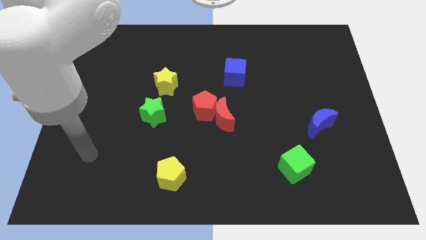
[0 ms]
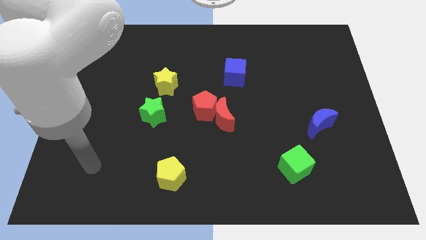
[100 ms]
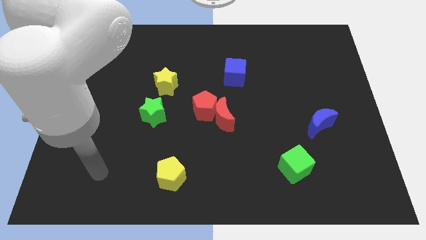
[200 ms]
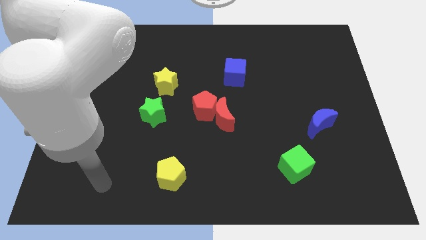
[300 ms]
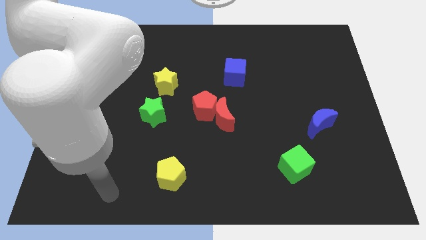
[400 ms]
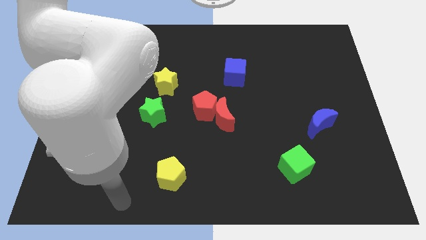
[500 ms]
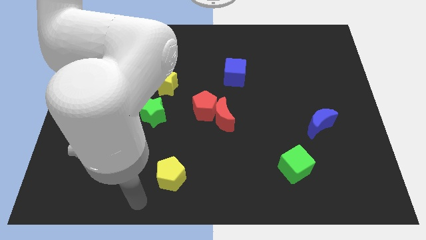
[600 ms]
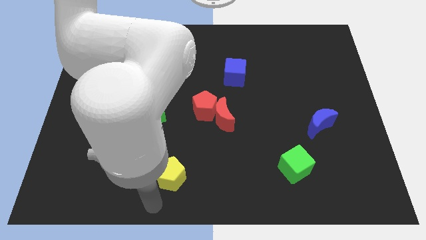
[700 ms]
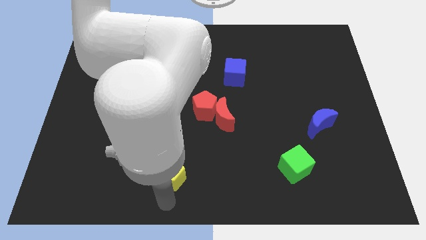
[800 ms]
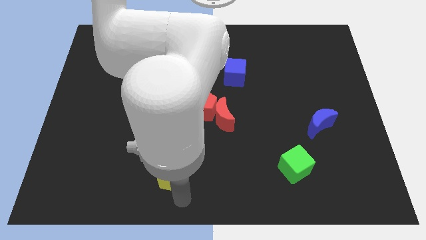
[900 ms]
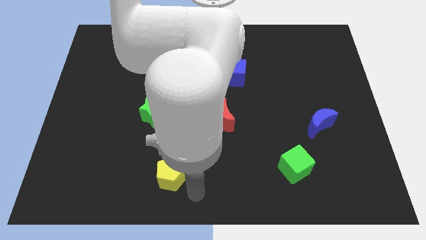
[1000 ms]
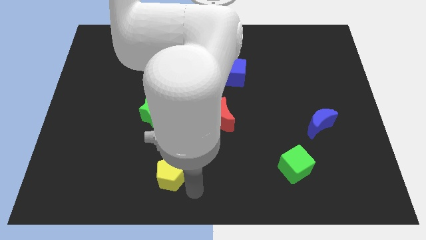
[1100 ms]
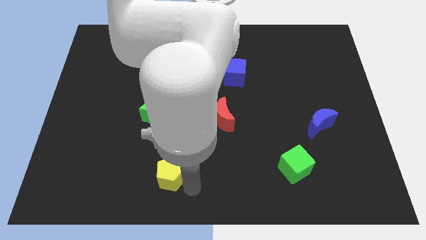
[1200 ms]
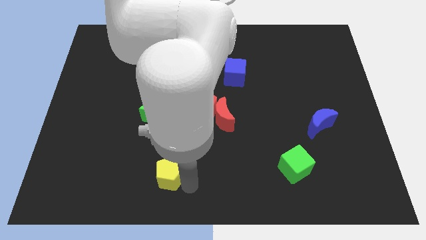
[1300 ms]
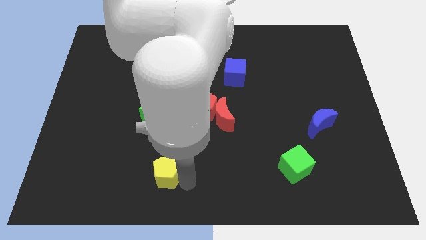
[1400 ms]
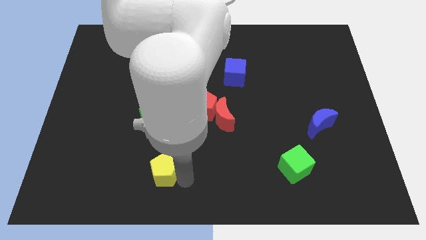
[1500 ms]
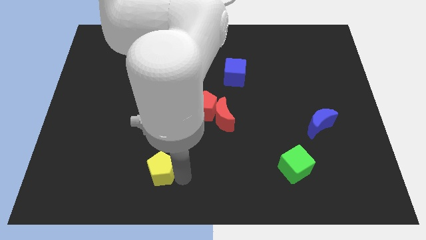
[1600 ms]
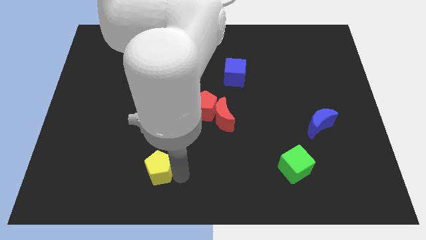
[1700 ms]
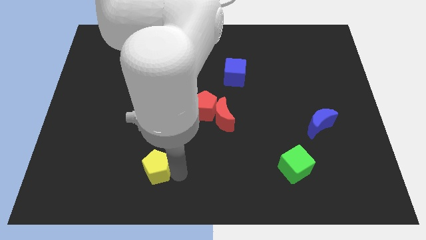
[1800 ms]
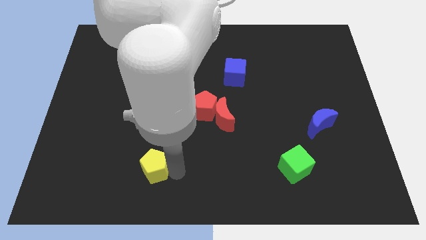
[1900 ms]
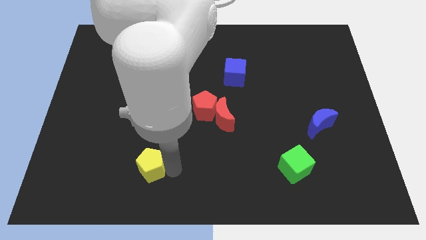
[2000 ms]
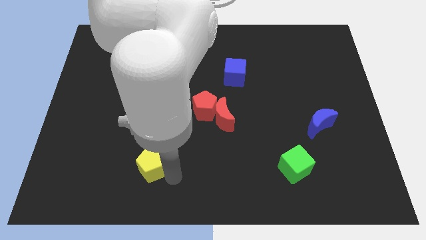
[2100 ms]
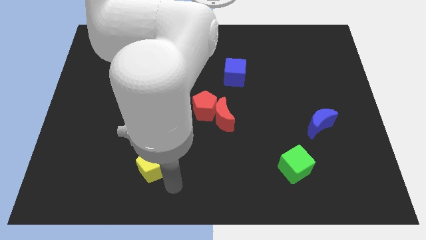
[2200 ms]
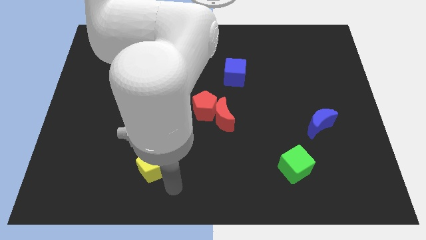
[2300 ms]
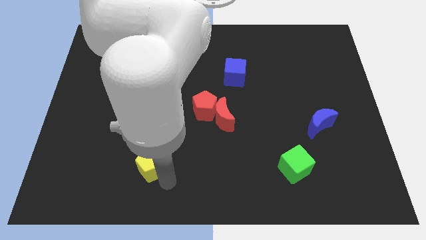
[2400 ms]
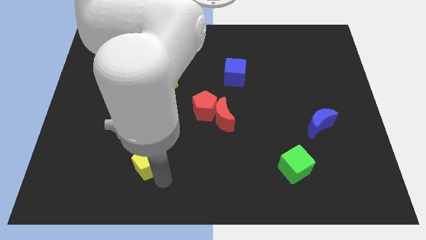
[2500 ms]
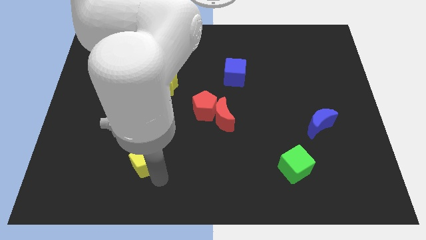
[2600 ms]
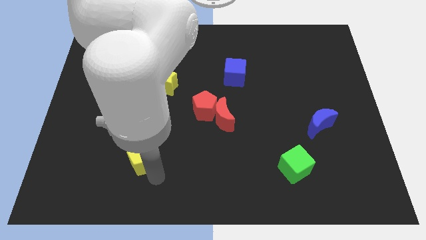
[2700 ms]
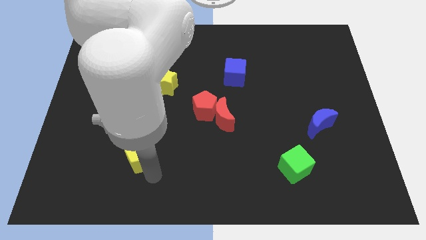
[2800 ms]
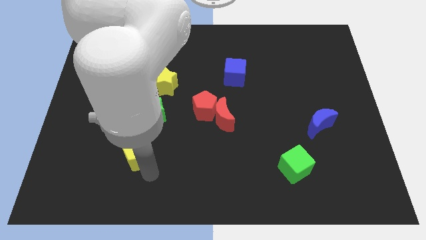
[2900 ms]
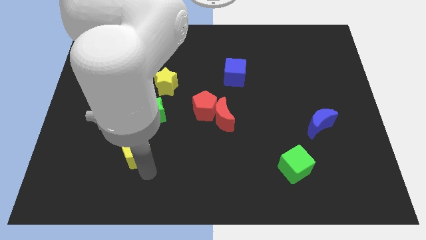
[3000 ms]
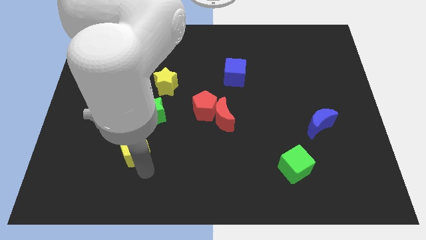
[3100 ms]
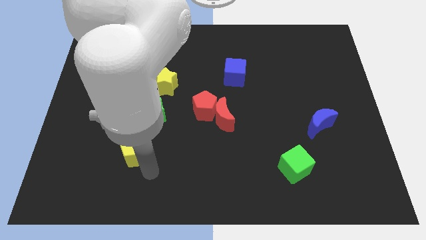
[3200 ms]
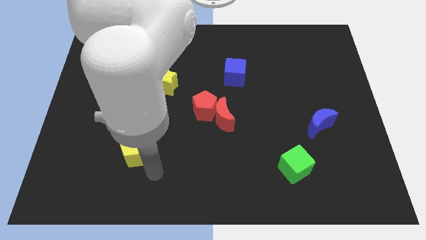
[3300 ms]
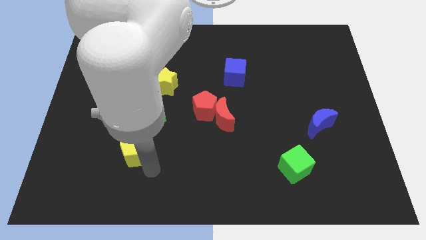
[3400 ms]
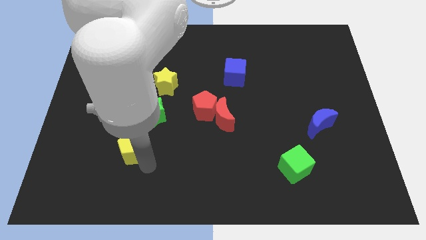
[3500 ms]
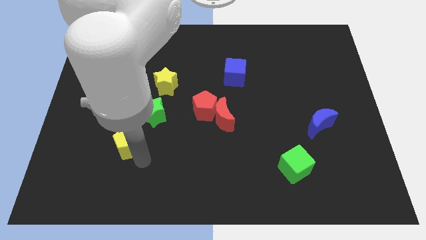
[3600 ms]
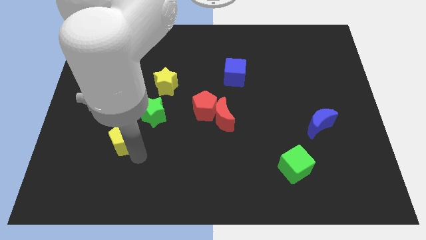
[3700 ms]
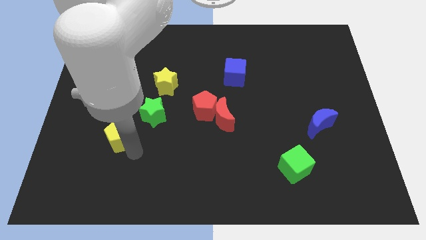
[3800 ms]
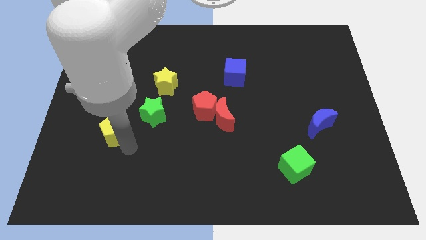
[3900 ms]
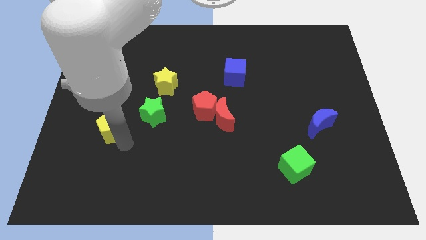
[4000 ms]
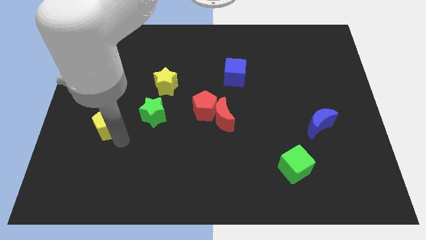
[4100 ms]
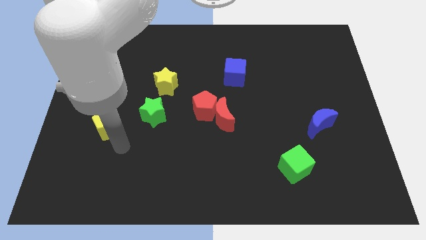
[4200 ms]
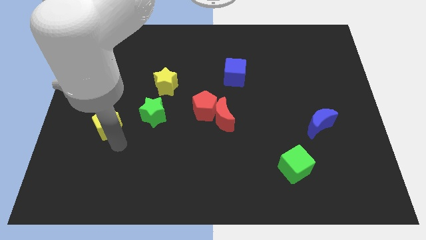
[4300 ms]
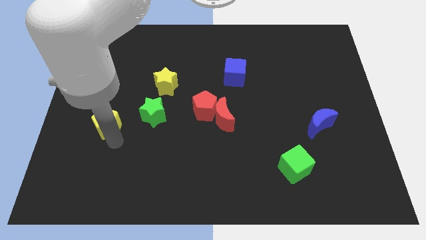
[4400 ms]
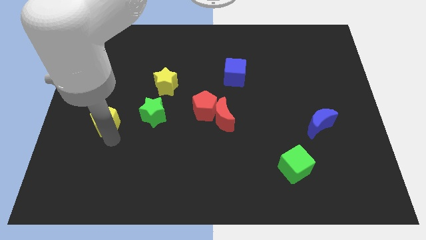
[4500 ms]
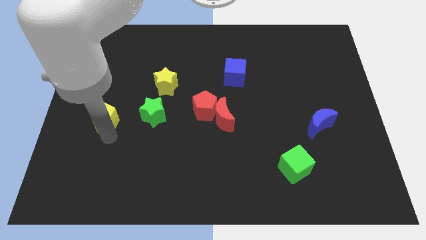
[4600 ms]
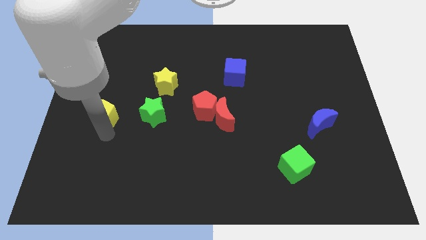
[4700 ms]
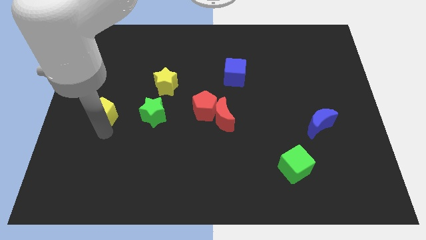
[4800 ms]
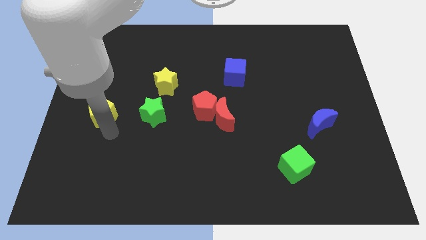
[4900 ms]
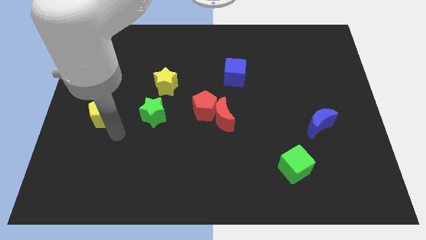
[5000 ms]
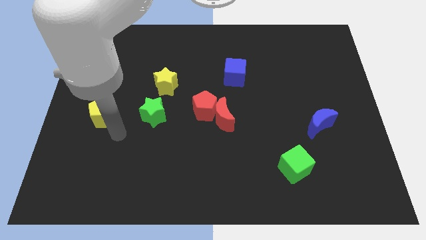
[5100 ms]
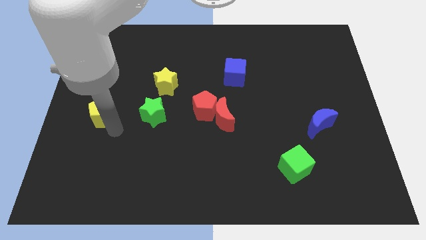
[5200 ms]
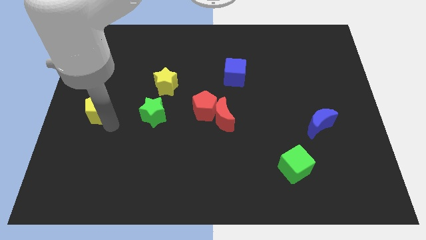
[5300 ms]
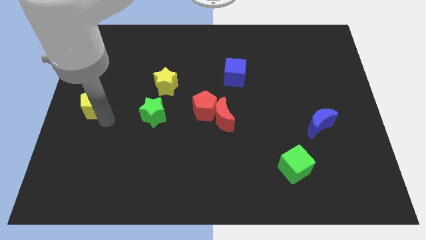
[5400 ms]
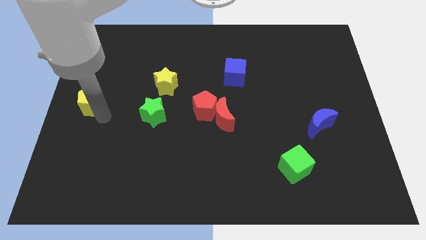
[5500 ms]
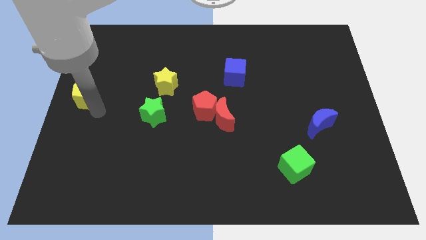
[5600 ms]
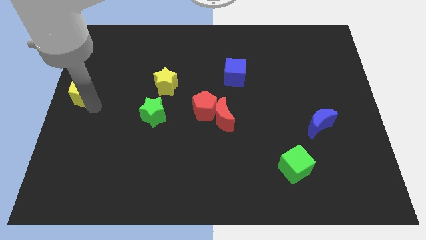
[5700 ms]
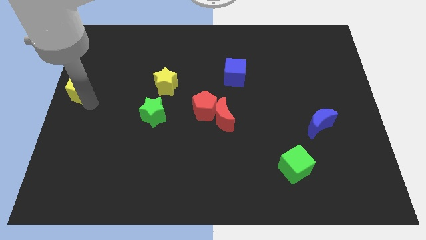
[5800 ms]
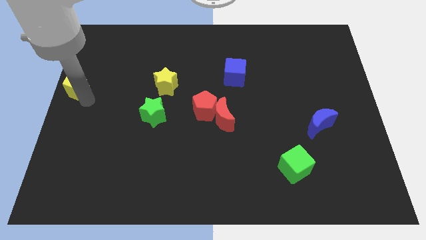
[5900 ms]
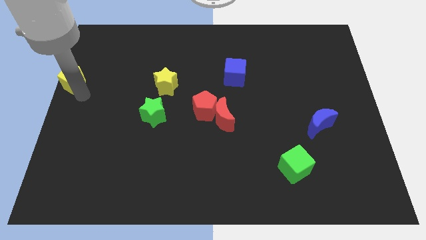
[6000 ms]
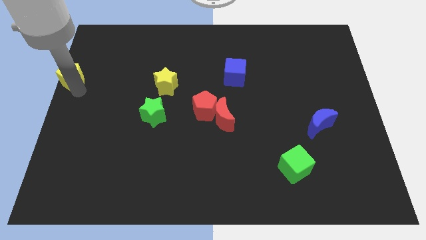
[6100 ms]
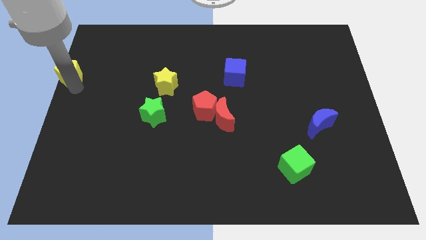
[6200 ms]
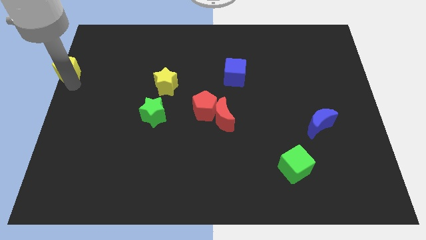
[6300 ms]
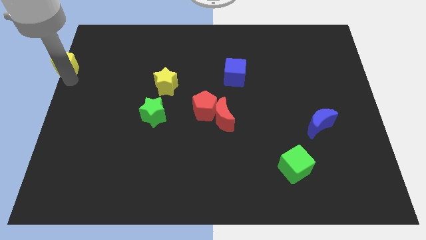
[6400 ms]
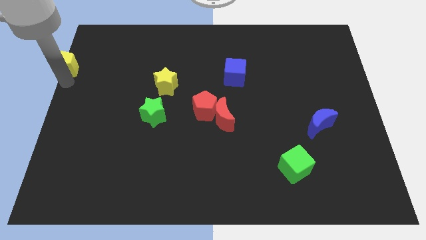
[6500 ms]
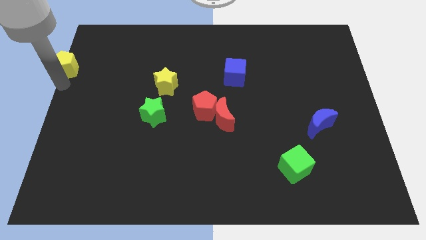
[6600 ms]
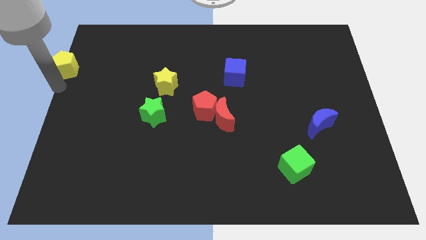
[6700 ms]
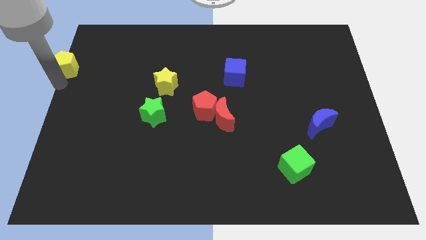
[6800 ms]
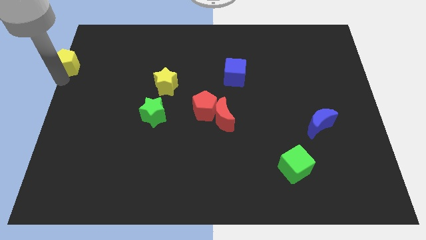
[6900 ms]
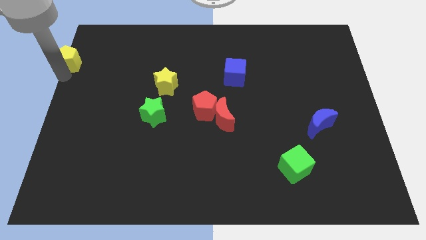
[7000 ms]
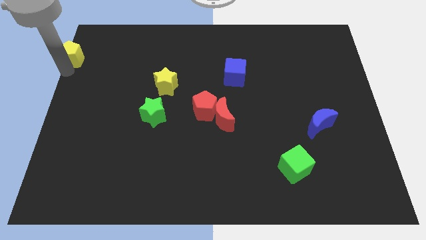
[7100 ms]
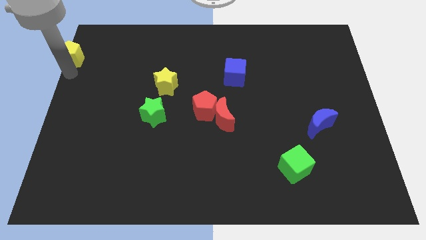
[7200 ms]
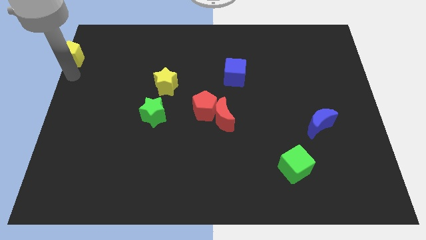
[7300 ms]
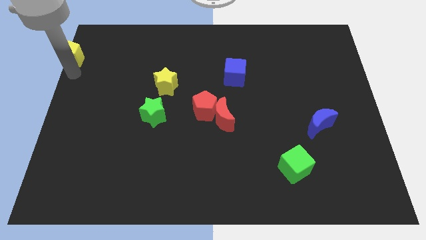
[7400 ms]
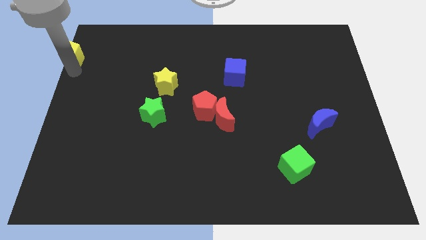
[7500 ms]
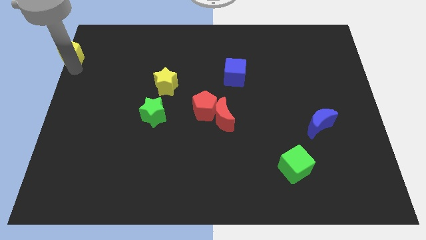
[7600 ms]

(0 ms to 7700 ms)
push the yellow pentagon to the upper left corner
